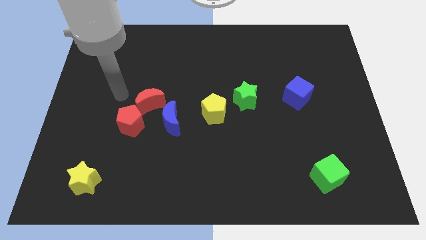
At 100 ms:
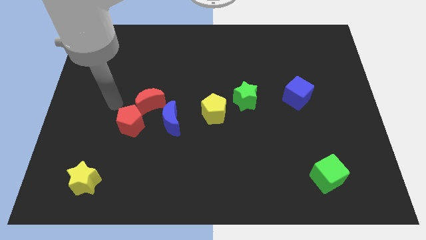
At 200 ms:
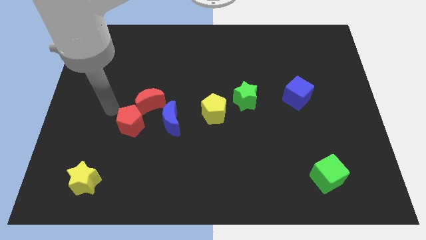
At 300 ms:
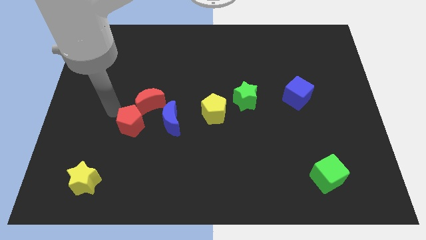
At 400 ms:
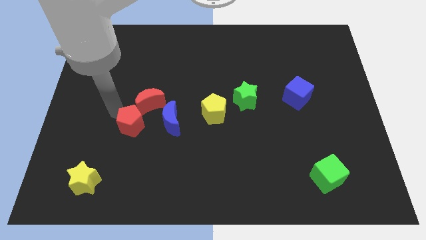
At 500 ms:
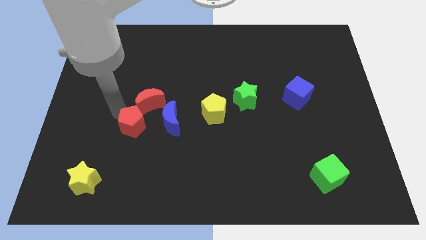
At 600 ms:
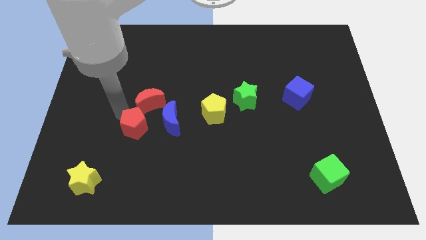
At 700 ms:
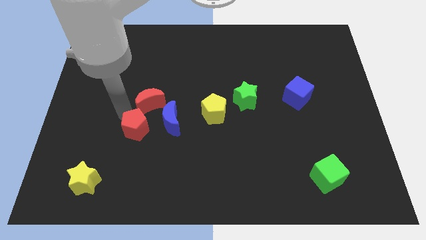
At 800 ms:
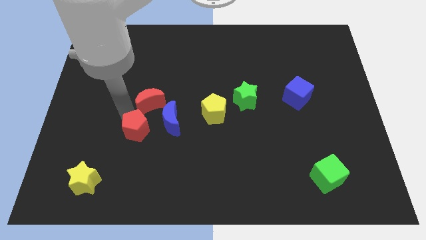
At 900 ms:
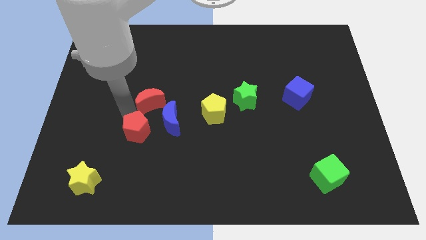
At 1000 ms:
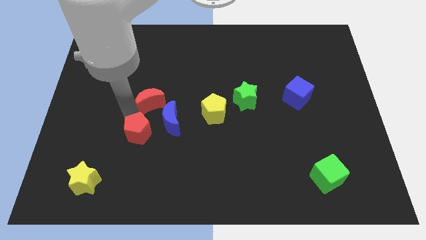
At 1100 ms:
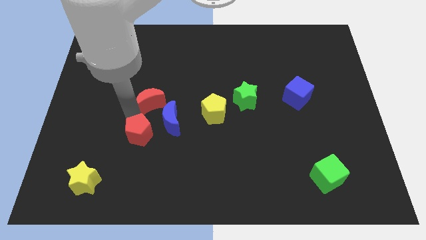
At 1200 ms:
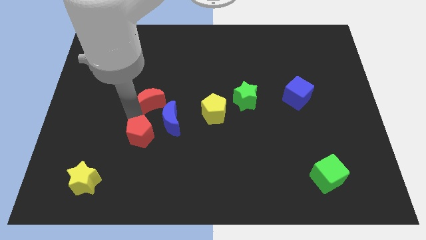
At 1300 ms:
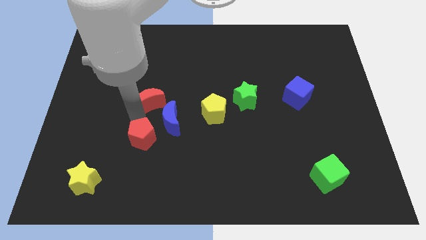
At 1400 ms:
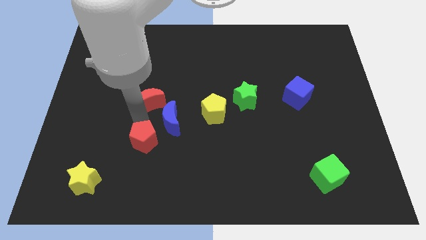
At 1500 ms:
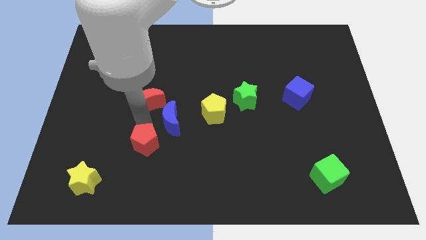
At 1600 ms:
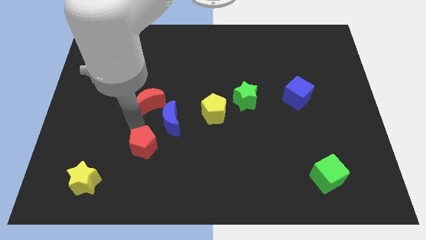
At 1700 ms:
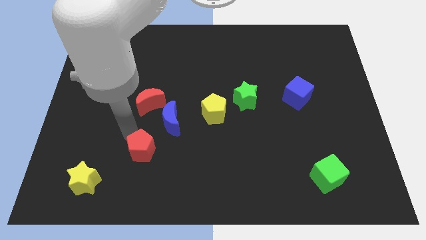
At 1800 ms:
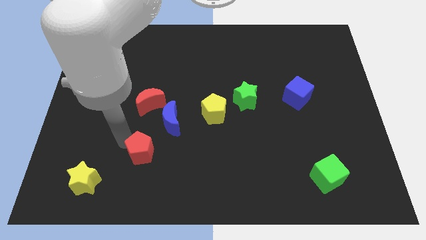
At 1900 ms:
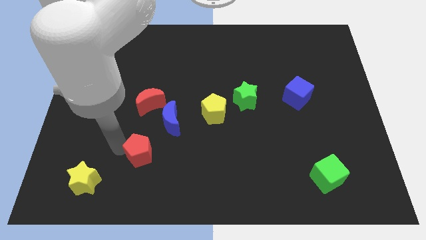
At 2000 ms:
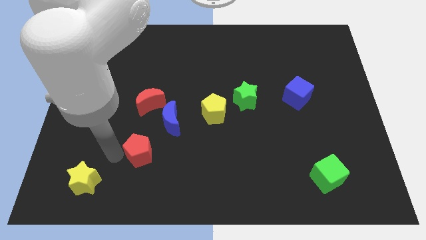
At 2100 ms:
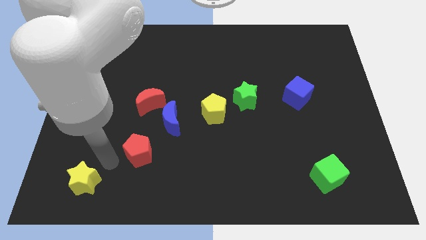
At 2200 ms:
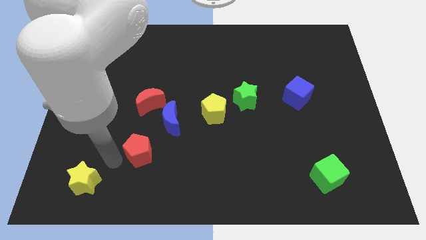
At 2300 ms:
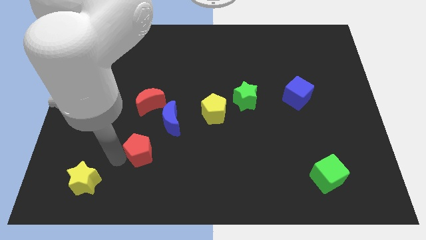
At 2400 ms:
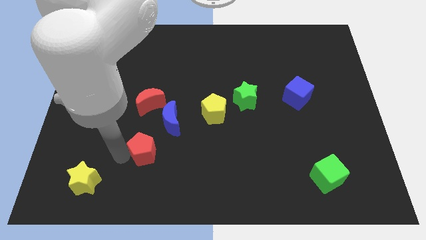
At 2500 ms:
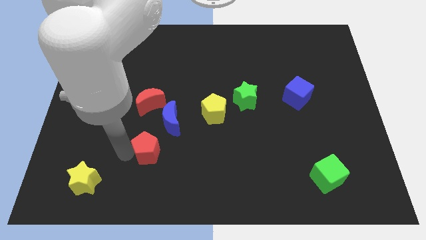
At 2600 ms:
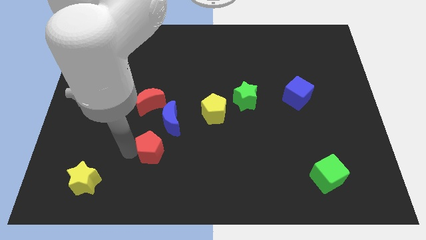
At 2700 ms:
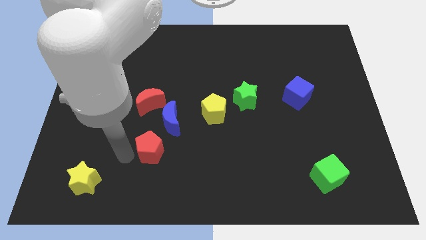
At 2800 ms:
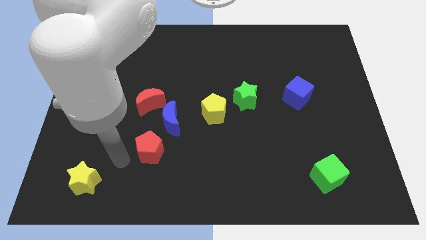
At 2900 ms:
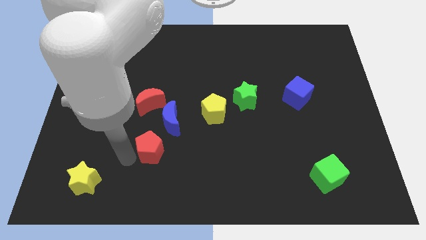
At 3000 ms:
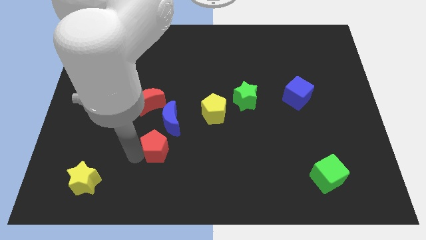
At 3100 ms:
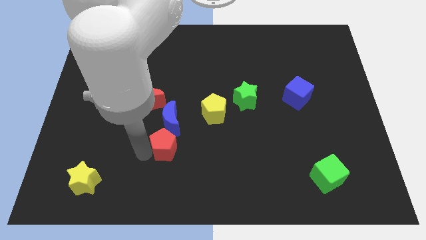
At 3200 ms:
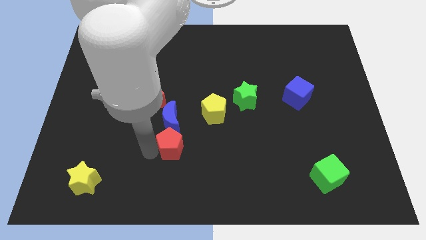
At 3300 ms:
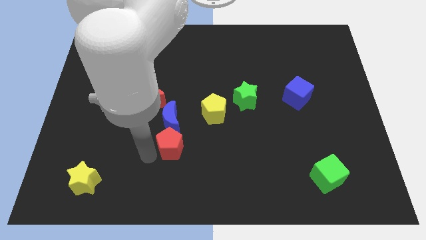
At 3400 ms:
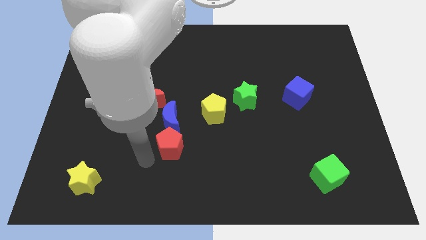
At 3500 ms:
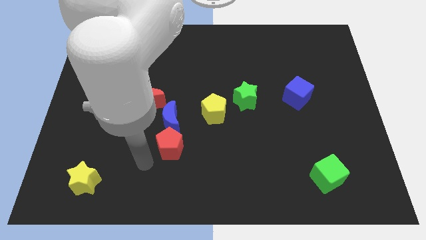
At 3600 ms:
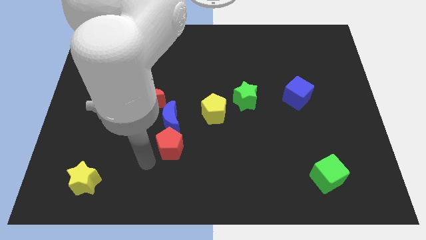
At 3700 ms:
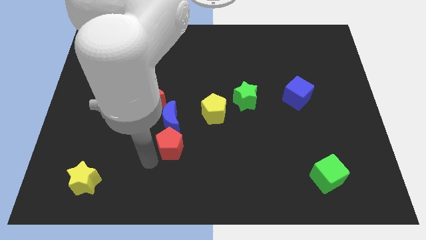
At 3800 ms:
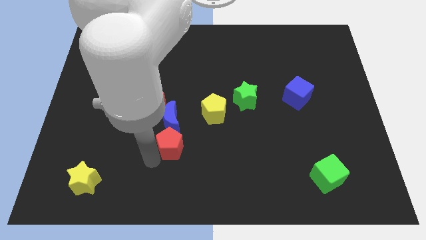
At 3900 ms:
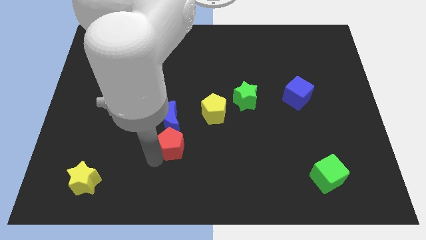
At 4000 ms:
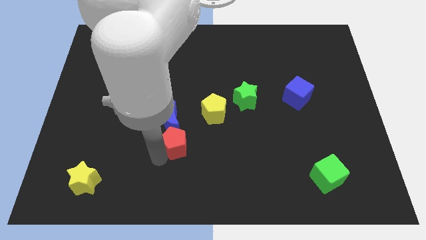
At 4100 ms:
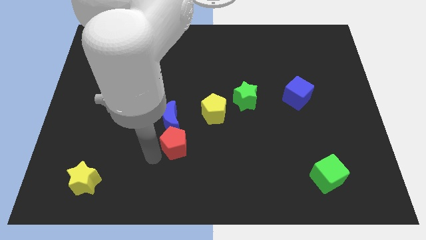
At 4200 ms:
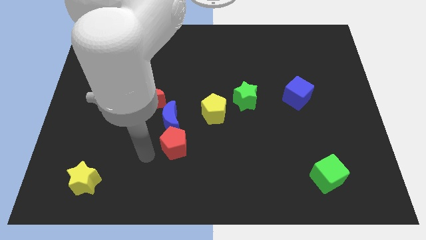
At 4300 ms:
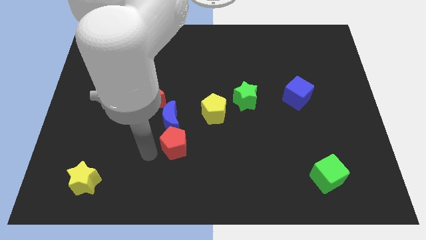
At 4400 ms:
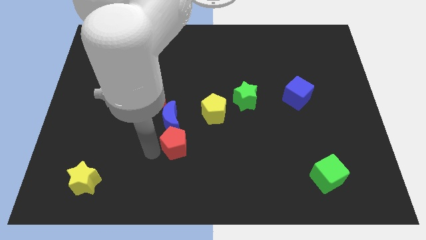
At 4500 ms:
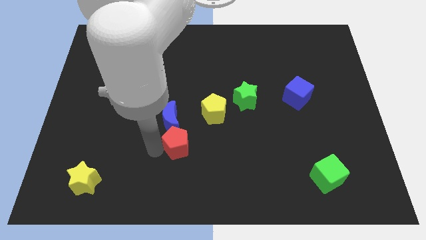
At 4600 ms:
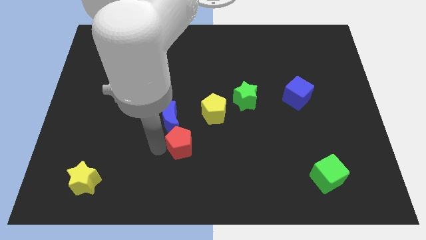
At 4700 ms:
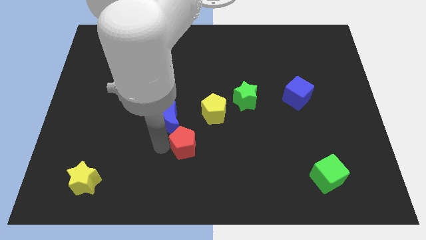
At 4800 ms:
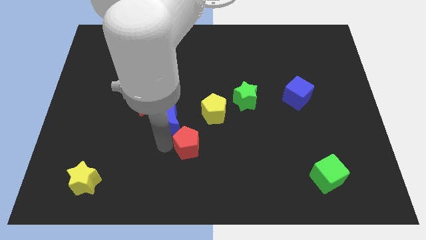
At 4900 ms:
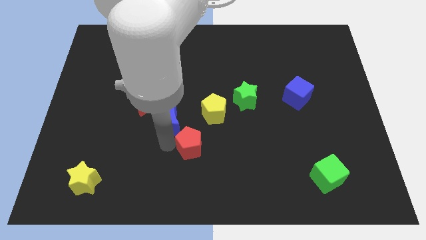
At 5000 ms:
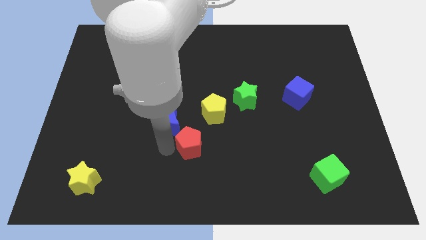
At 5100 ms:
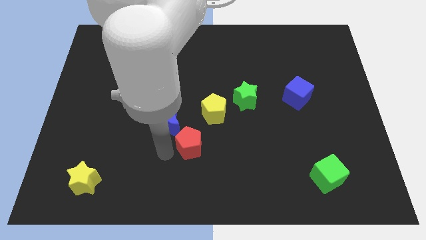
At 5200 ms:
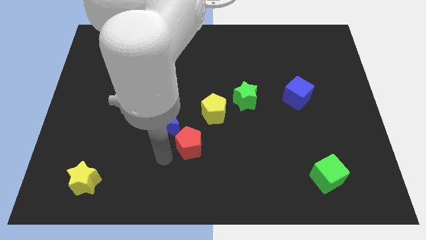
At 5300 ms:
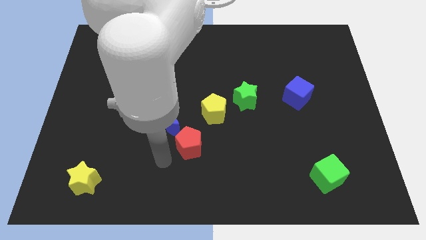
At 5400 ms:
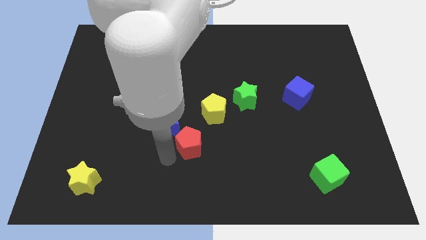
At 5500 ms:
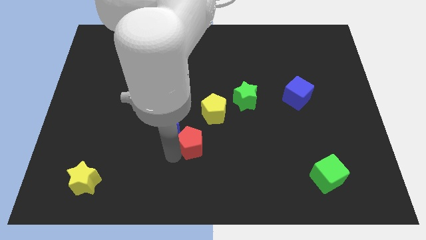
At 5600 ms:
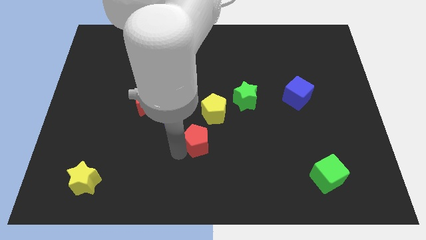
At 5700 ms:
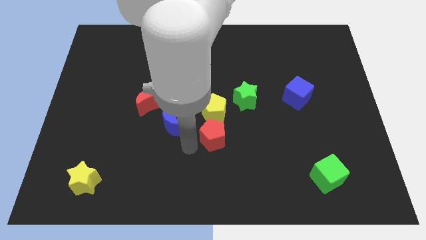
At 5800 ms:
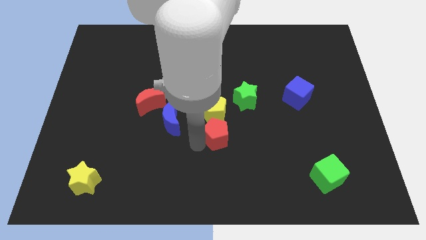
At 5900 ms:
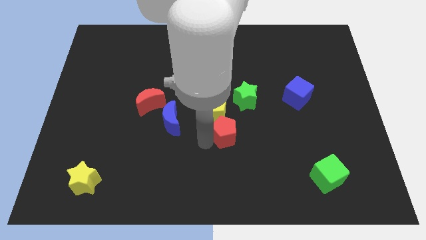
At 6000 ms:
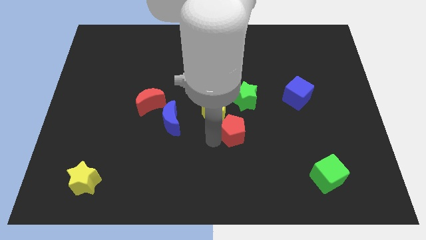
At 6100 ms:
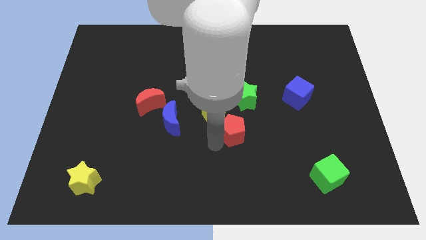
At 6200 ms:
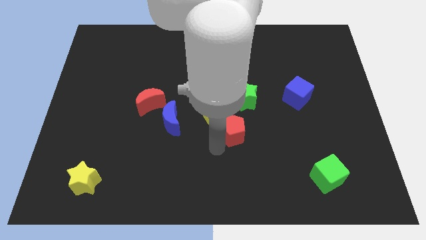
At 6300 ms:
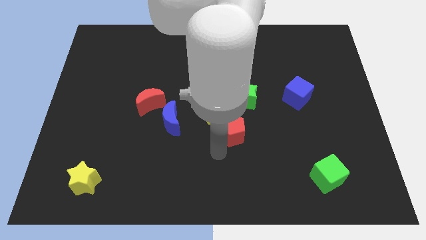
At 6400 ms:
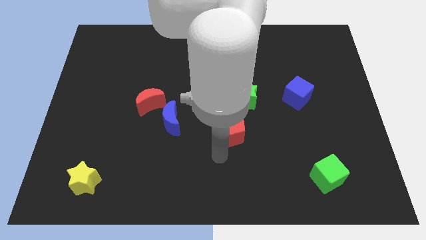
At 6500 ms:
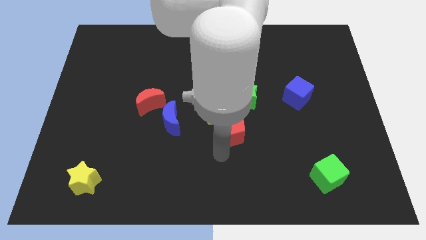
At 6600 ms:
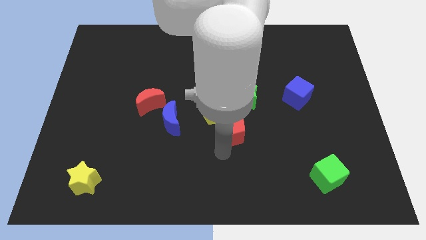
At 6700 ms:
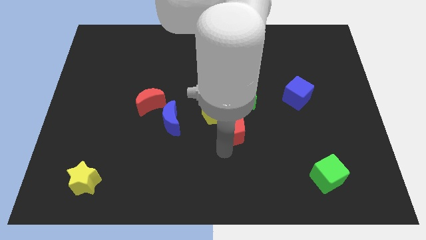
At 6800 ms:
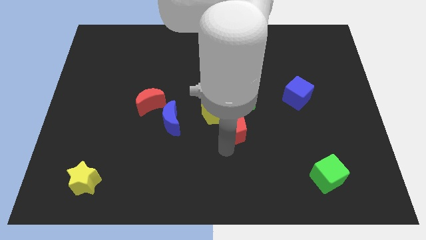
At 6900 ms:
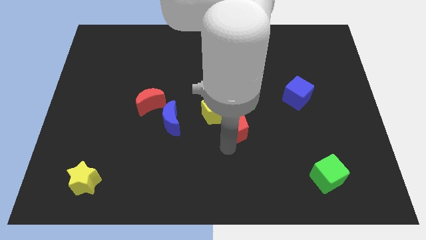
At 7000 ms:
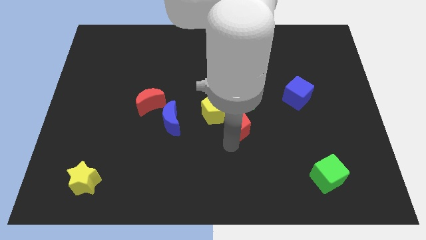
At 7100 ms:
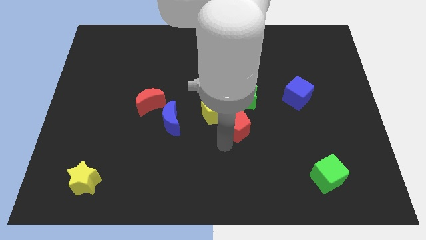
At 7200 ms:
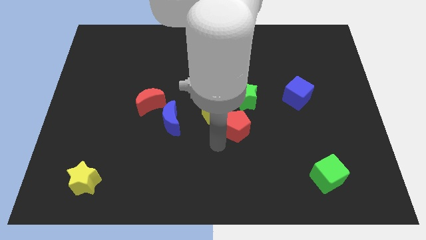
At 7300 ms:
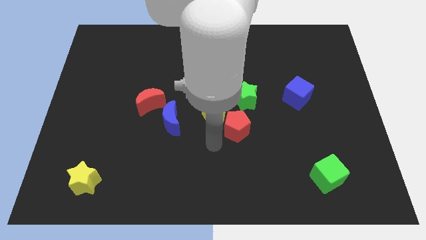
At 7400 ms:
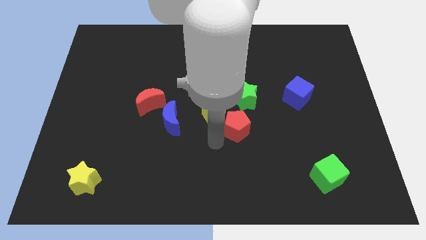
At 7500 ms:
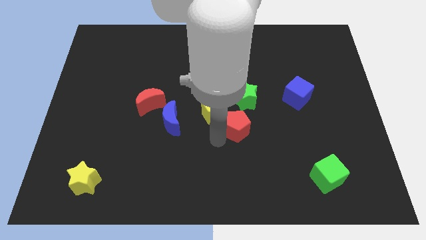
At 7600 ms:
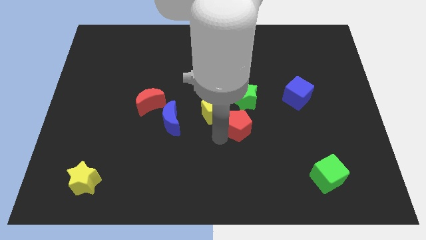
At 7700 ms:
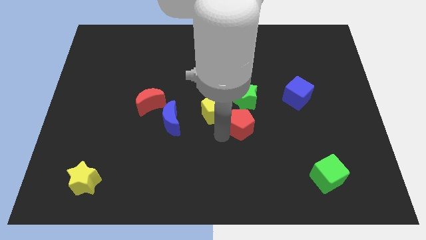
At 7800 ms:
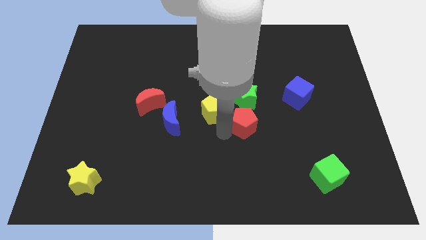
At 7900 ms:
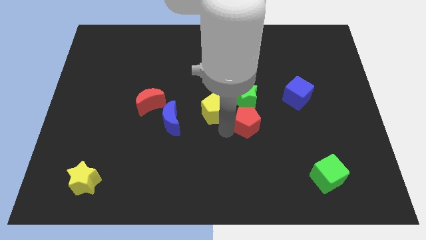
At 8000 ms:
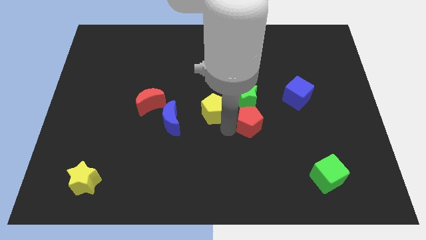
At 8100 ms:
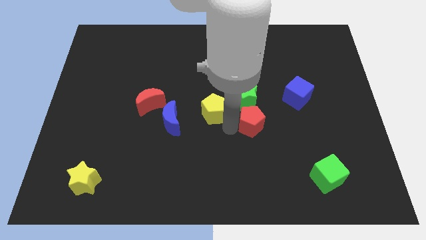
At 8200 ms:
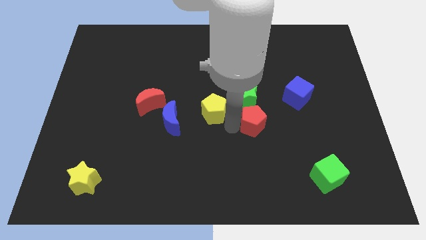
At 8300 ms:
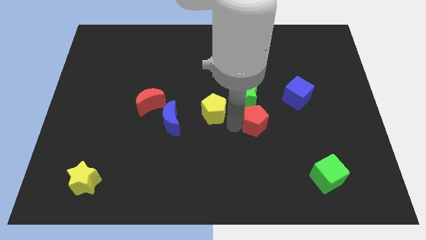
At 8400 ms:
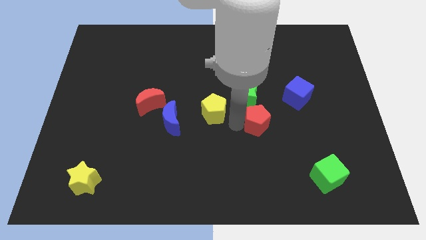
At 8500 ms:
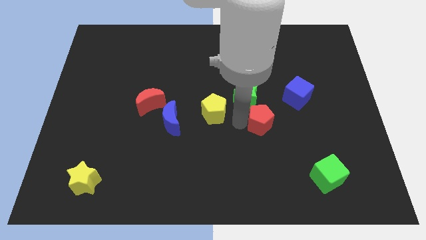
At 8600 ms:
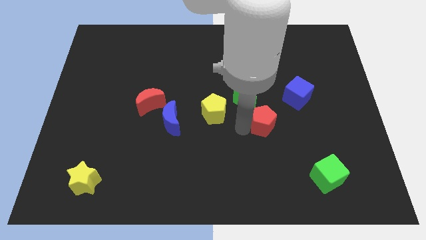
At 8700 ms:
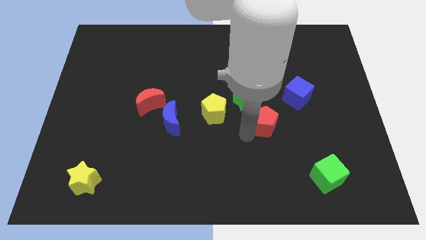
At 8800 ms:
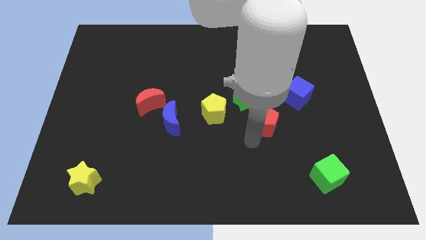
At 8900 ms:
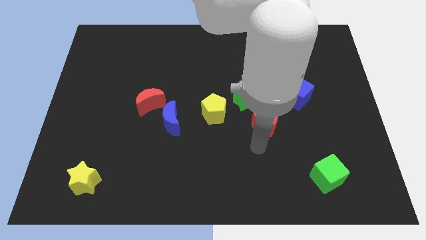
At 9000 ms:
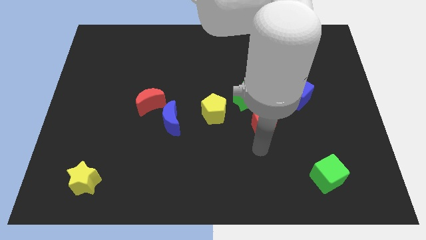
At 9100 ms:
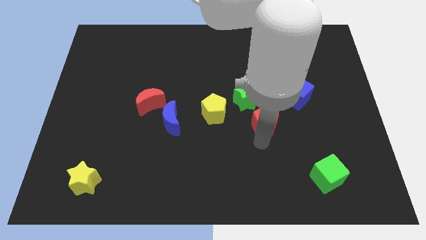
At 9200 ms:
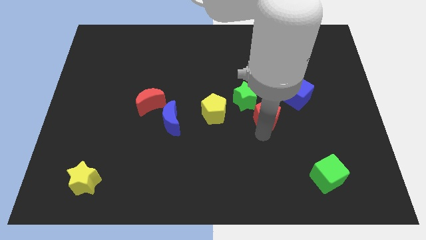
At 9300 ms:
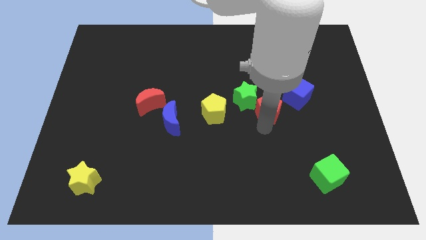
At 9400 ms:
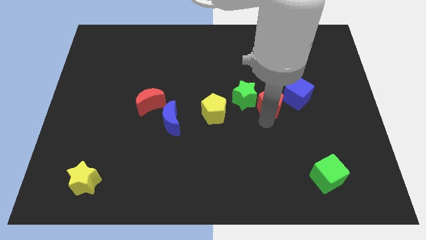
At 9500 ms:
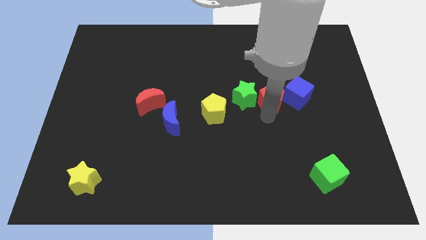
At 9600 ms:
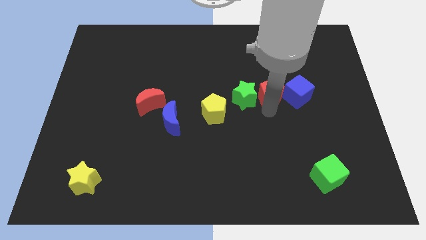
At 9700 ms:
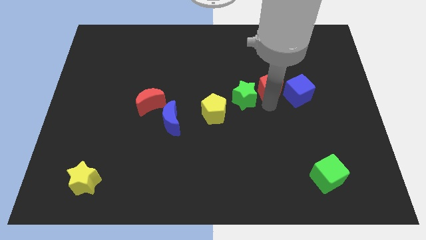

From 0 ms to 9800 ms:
put the red pentagon to the top left side of the blue cube
